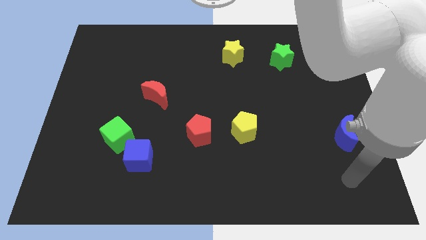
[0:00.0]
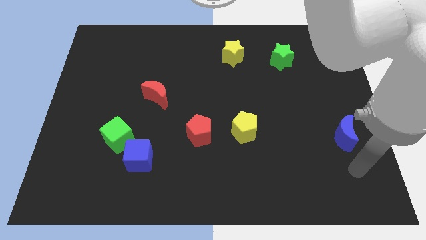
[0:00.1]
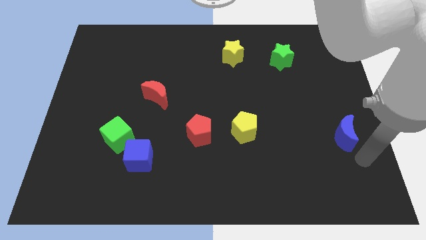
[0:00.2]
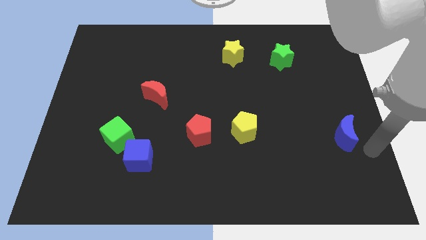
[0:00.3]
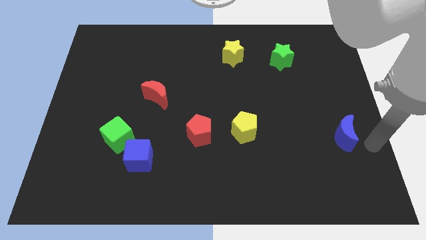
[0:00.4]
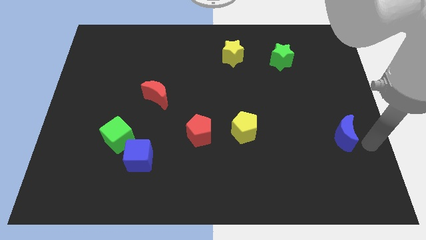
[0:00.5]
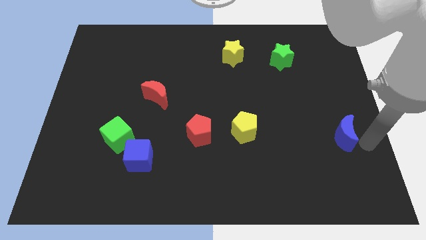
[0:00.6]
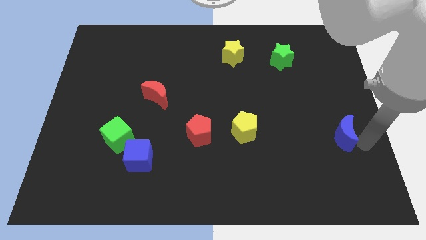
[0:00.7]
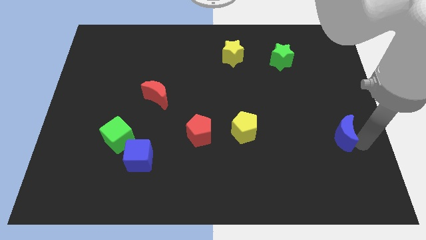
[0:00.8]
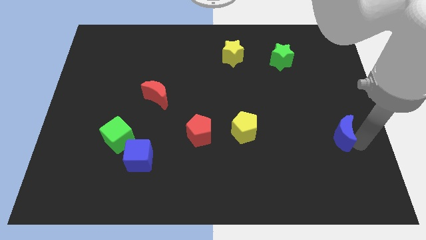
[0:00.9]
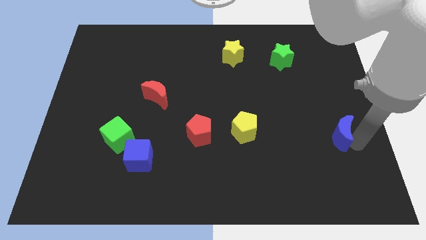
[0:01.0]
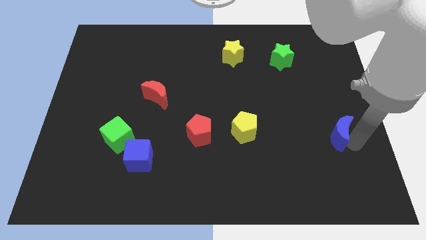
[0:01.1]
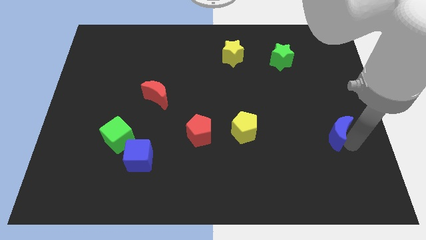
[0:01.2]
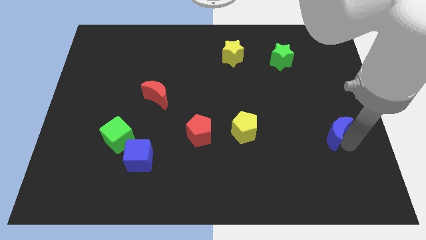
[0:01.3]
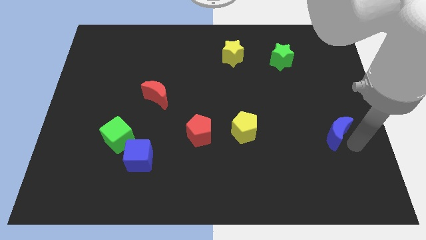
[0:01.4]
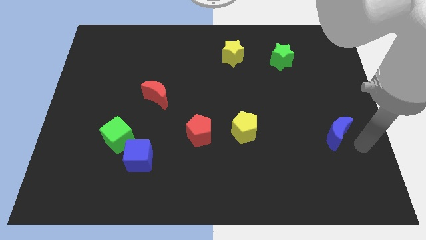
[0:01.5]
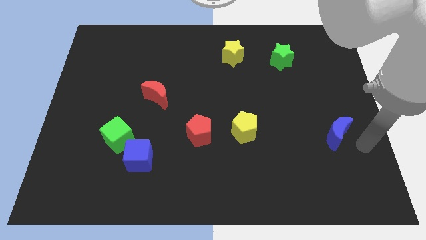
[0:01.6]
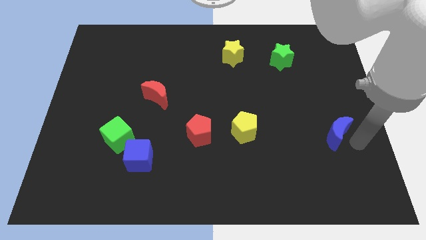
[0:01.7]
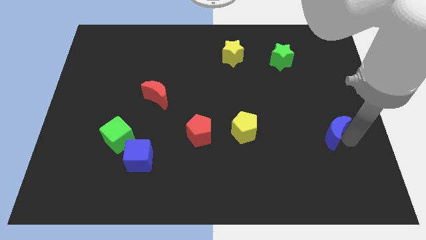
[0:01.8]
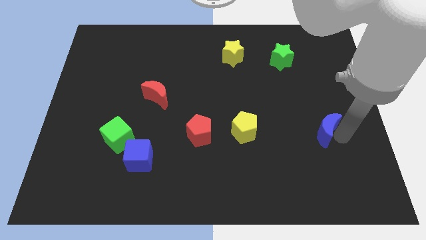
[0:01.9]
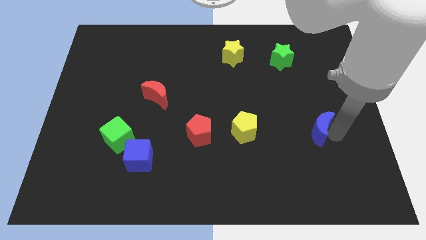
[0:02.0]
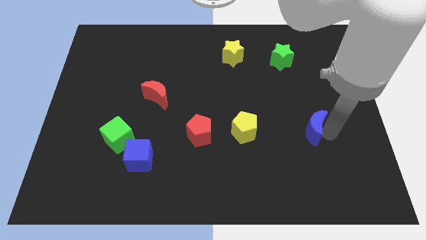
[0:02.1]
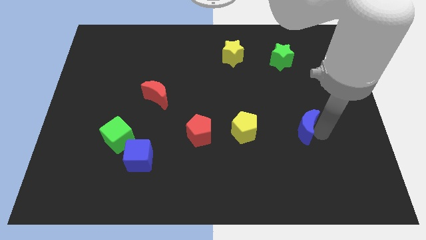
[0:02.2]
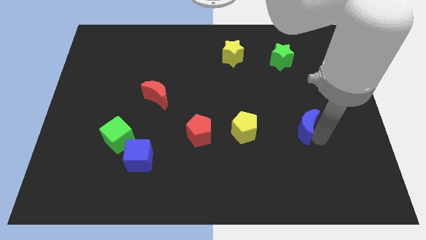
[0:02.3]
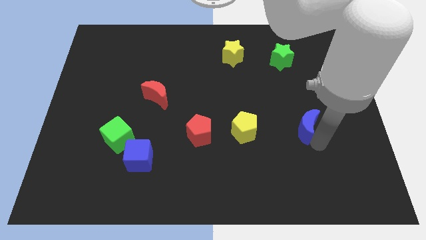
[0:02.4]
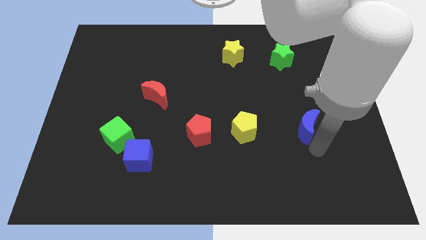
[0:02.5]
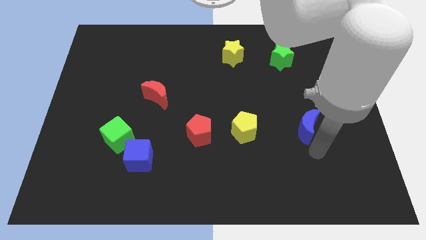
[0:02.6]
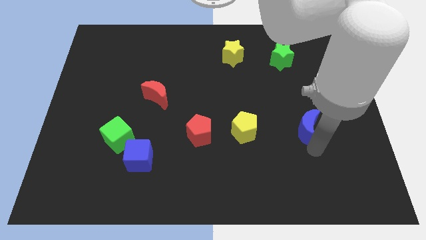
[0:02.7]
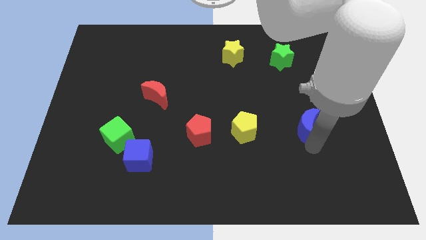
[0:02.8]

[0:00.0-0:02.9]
slide the blue moon up and to the left a little bit

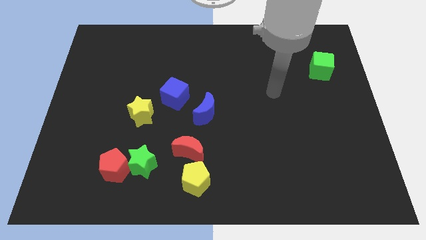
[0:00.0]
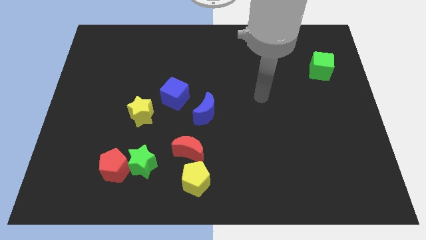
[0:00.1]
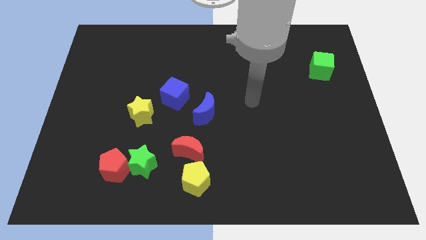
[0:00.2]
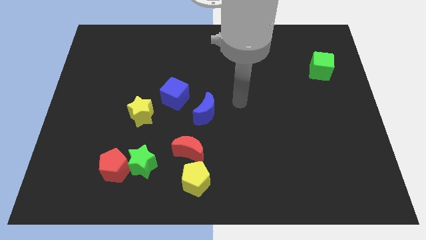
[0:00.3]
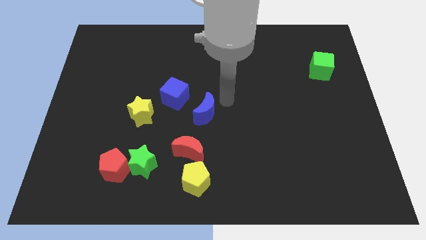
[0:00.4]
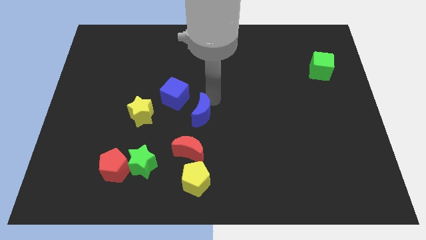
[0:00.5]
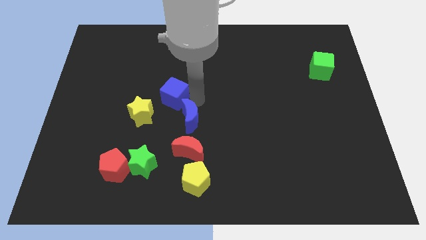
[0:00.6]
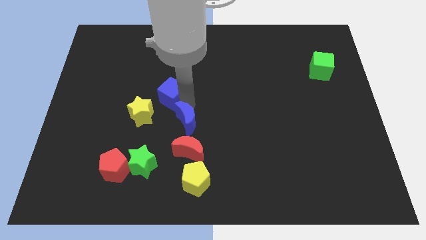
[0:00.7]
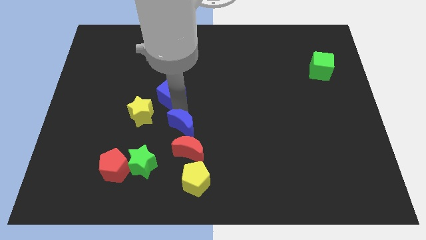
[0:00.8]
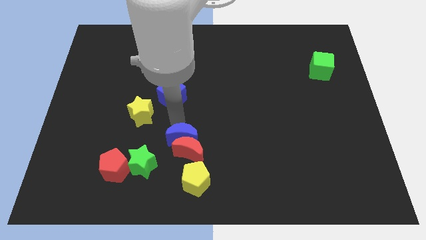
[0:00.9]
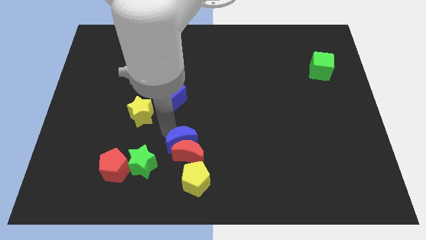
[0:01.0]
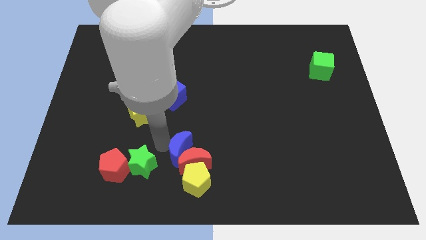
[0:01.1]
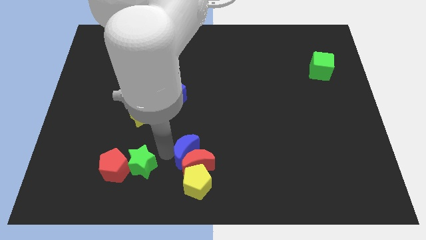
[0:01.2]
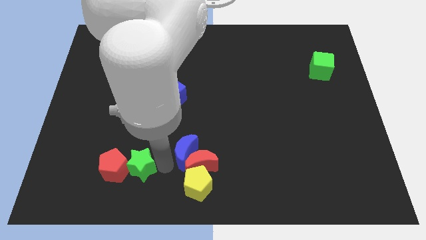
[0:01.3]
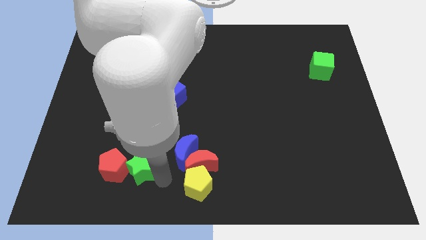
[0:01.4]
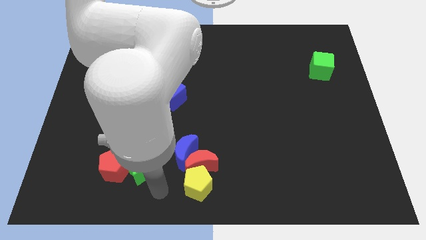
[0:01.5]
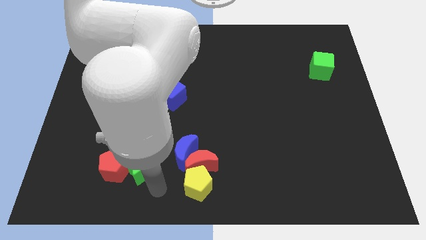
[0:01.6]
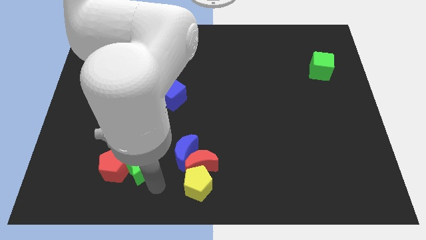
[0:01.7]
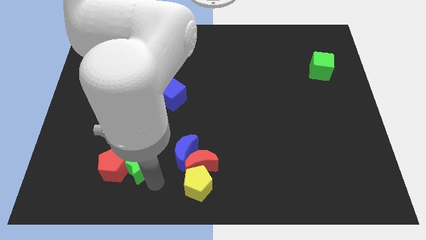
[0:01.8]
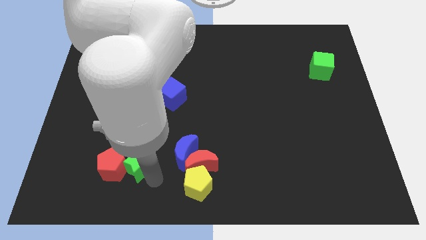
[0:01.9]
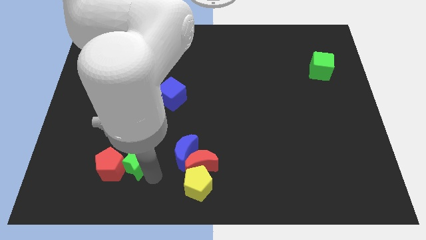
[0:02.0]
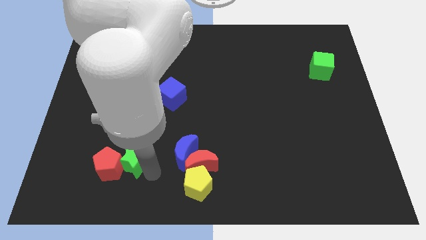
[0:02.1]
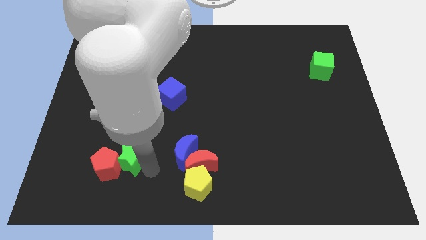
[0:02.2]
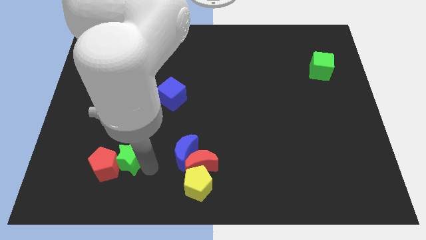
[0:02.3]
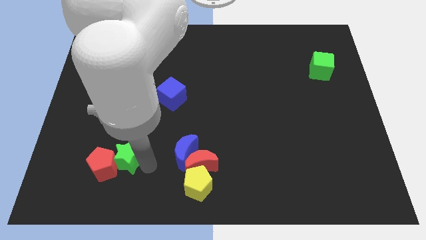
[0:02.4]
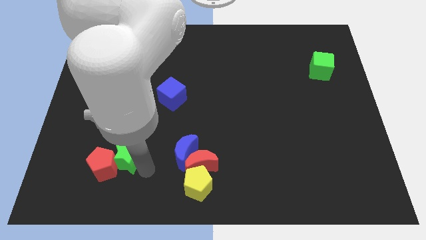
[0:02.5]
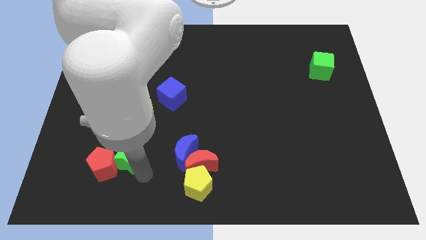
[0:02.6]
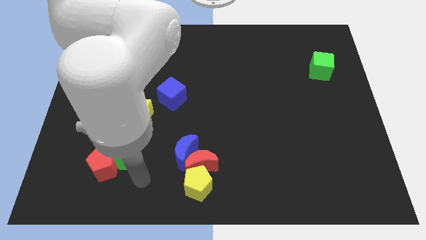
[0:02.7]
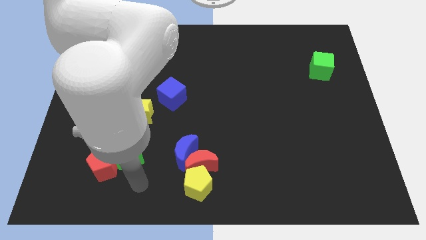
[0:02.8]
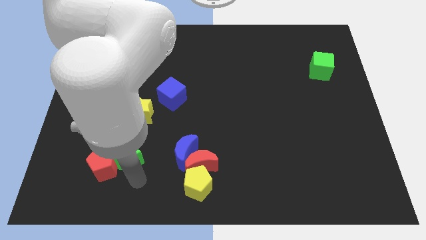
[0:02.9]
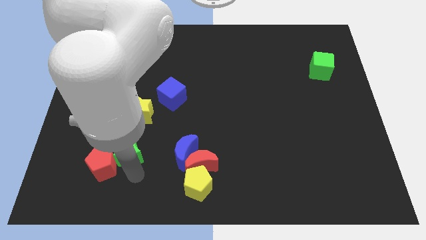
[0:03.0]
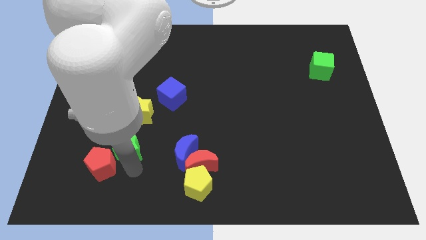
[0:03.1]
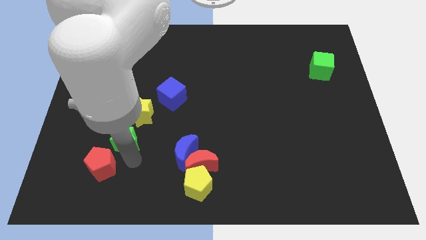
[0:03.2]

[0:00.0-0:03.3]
move the green star a little diagonally upwards and left

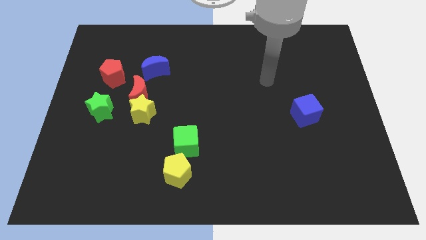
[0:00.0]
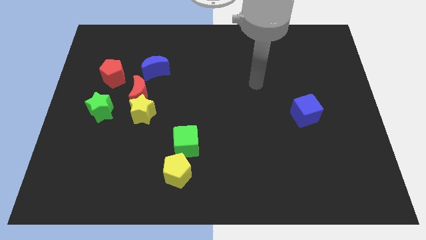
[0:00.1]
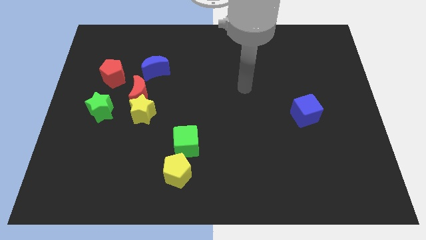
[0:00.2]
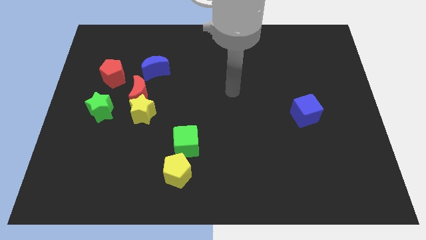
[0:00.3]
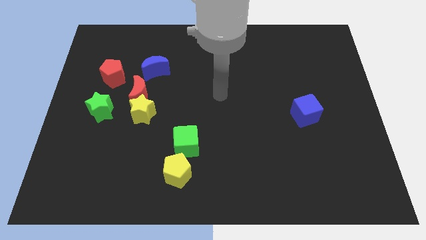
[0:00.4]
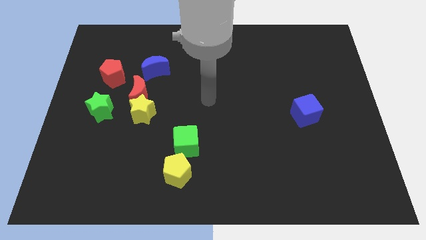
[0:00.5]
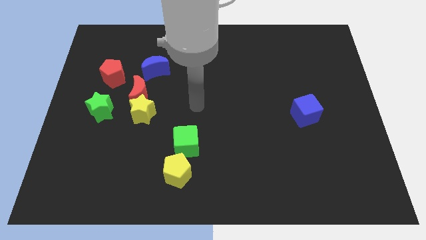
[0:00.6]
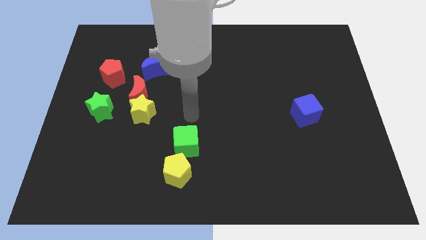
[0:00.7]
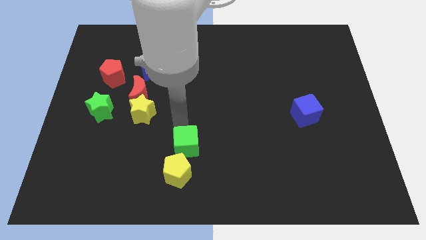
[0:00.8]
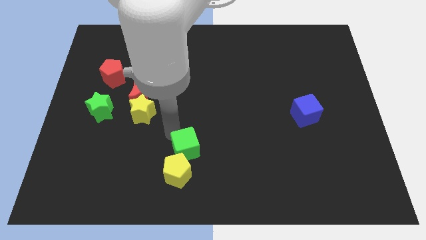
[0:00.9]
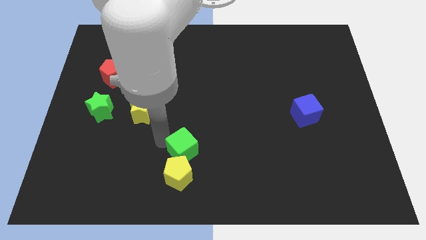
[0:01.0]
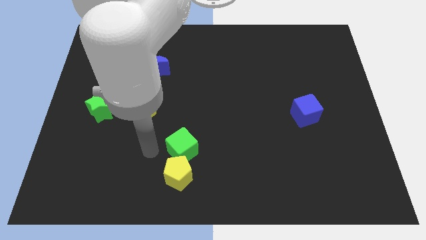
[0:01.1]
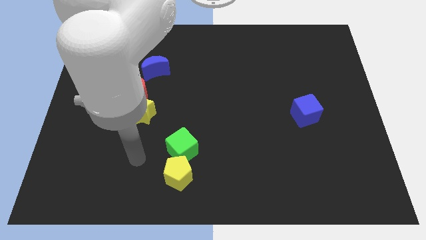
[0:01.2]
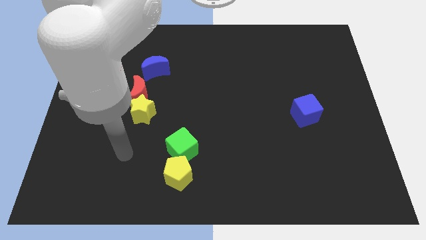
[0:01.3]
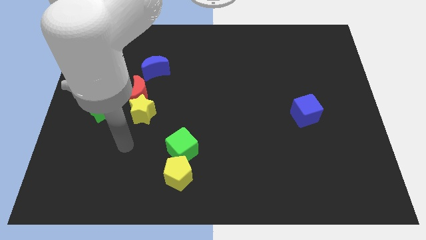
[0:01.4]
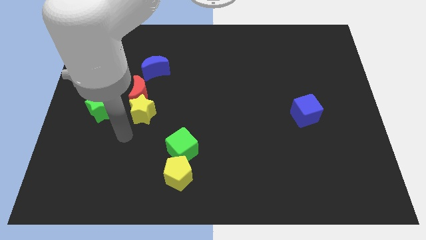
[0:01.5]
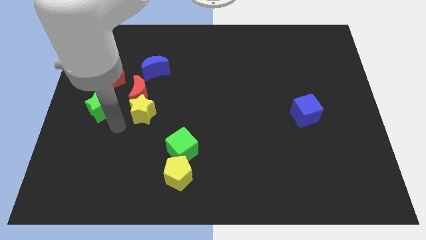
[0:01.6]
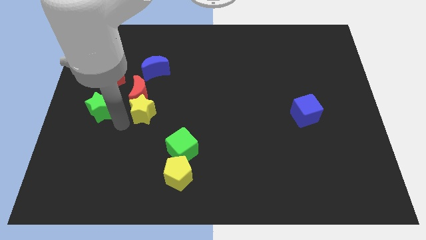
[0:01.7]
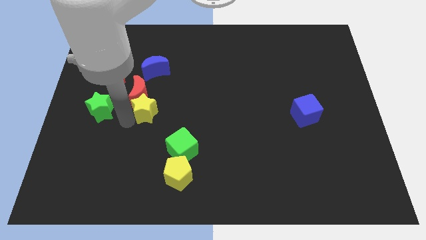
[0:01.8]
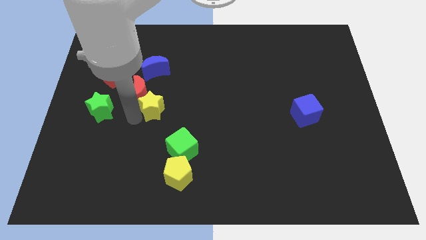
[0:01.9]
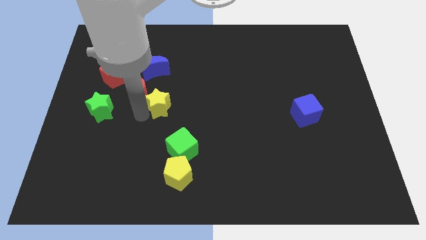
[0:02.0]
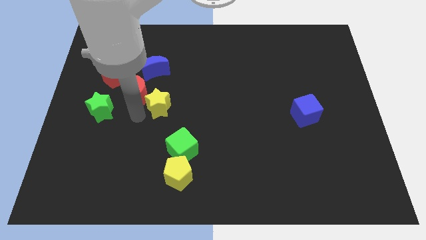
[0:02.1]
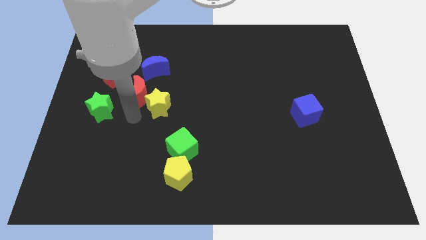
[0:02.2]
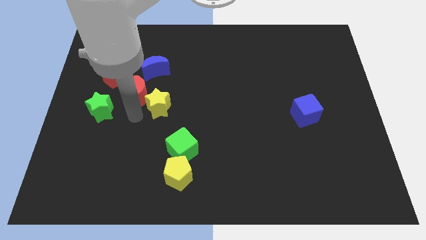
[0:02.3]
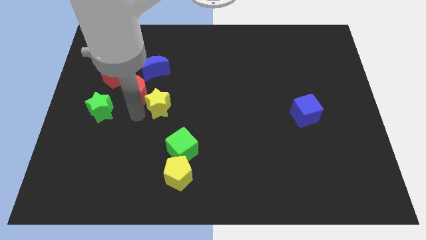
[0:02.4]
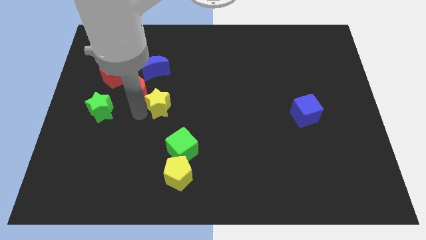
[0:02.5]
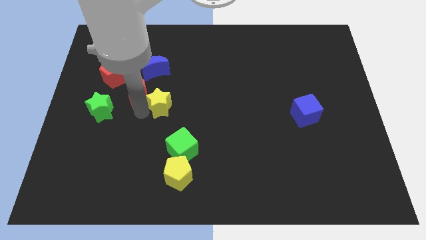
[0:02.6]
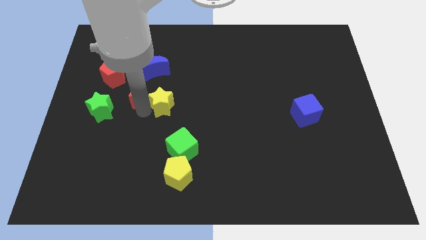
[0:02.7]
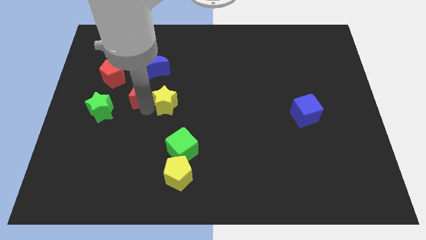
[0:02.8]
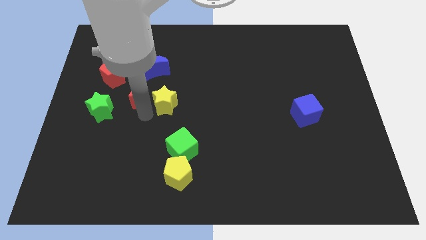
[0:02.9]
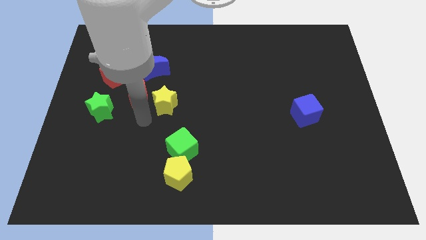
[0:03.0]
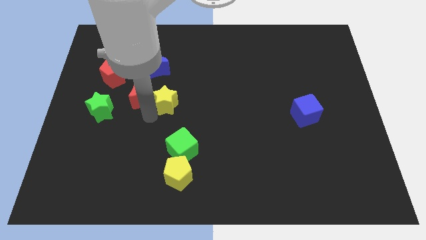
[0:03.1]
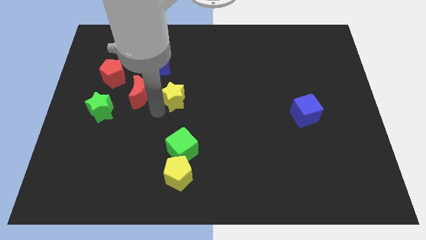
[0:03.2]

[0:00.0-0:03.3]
move the yellow star up and then right a little
